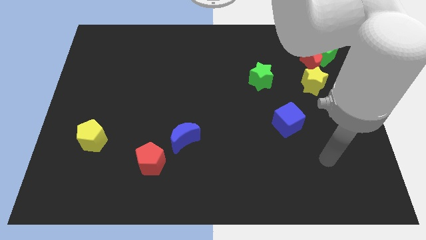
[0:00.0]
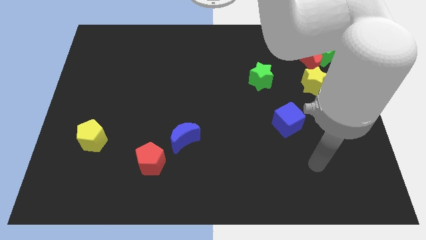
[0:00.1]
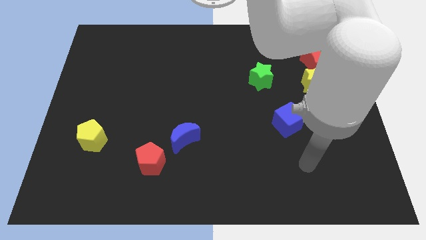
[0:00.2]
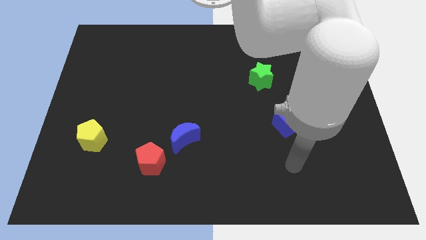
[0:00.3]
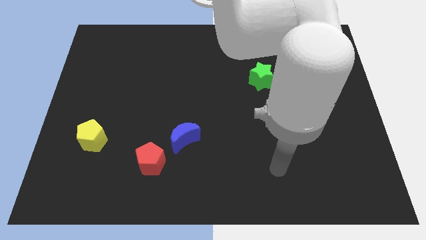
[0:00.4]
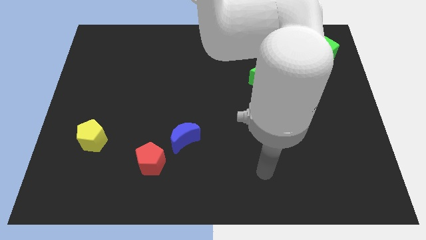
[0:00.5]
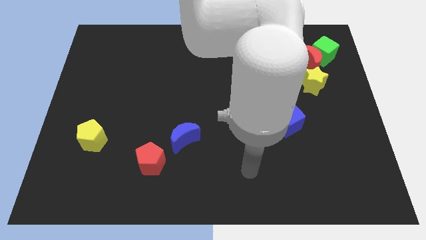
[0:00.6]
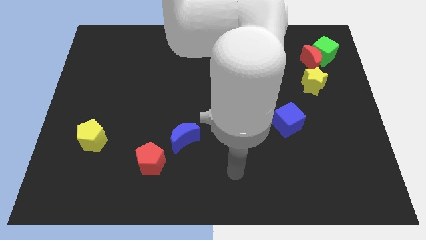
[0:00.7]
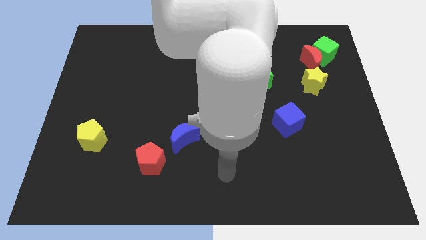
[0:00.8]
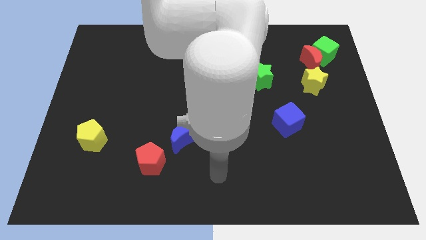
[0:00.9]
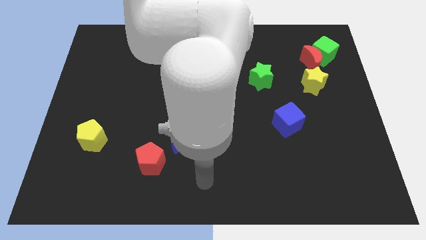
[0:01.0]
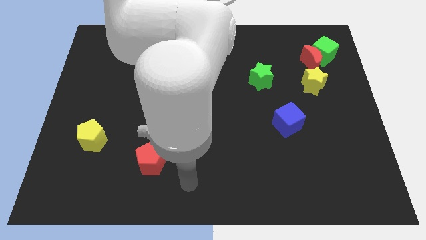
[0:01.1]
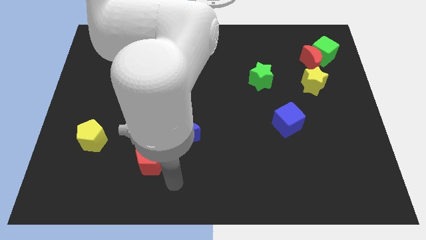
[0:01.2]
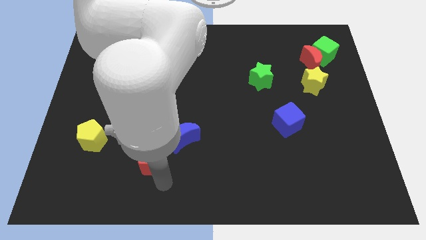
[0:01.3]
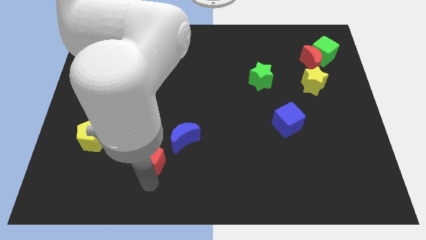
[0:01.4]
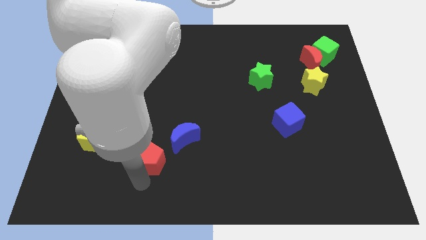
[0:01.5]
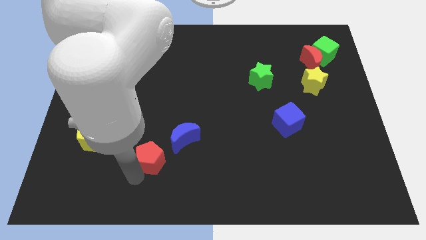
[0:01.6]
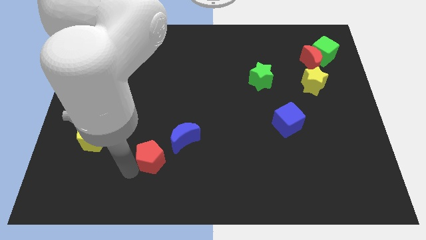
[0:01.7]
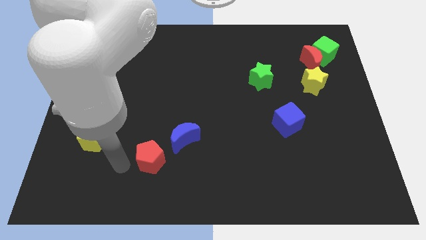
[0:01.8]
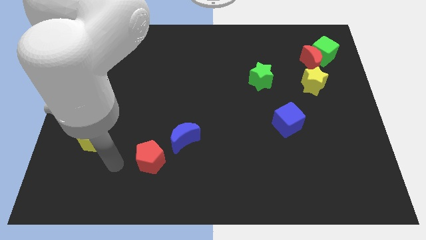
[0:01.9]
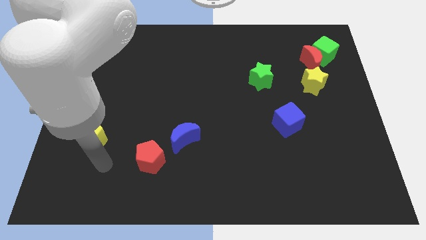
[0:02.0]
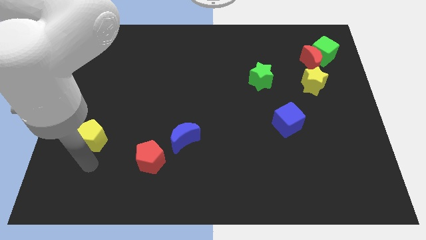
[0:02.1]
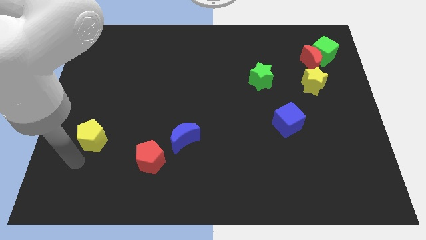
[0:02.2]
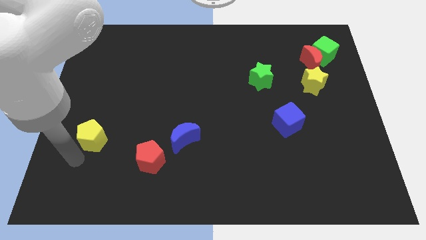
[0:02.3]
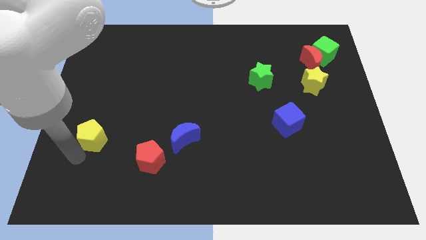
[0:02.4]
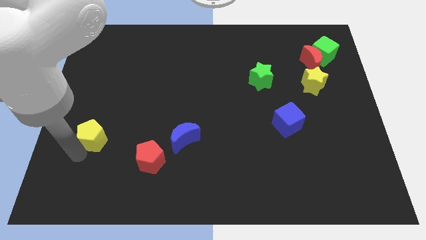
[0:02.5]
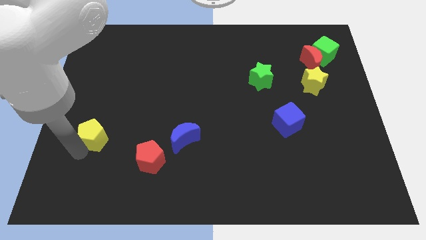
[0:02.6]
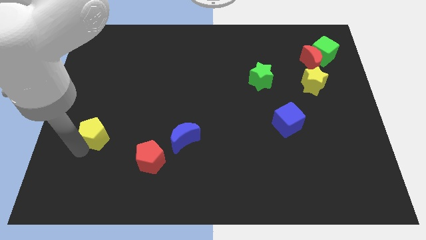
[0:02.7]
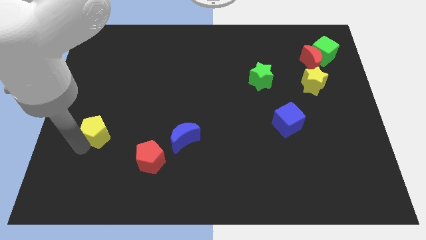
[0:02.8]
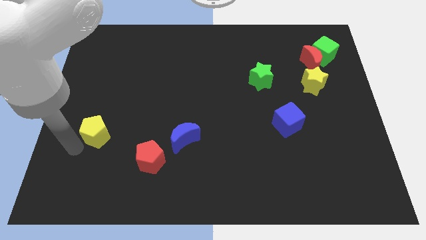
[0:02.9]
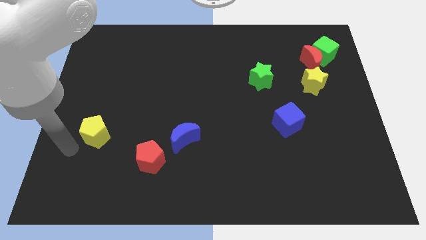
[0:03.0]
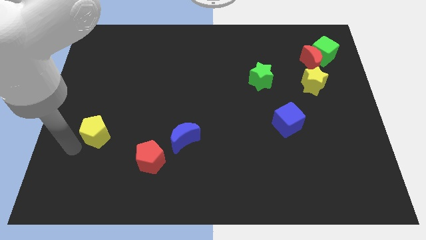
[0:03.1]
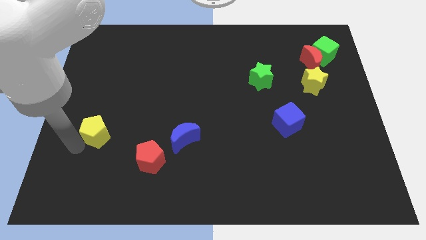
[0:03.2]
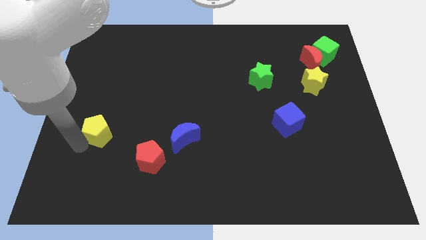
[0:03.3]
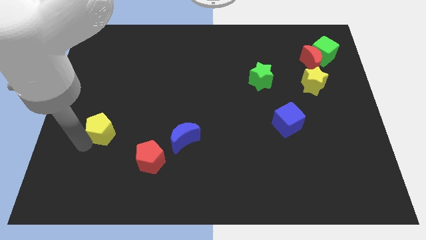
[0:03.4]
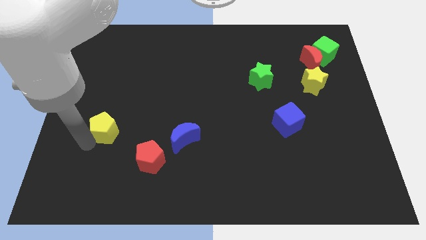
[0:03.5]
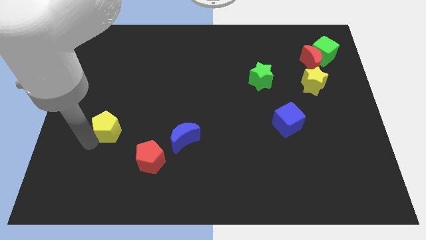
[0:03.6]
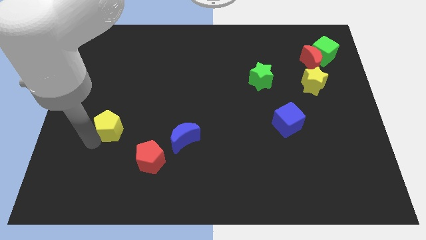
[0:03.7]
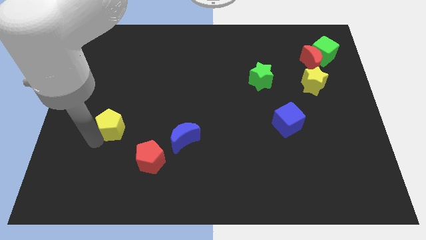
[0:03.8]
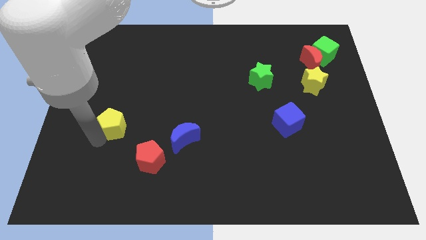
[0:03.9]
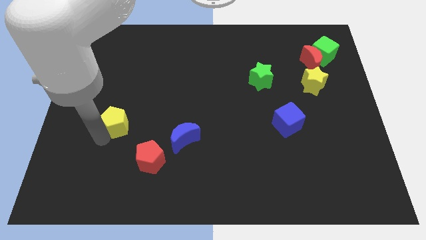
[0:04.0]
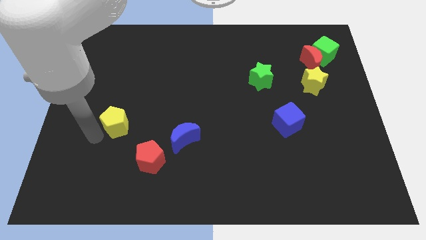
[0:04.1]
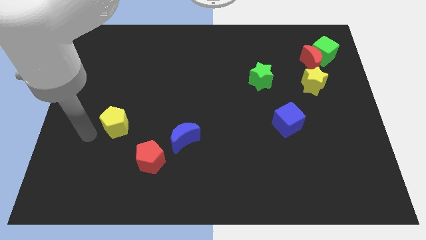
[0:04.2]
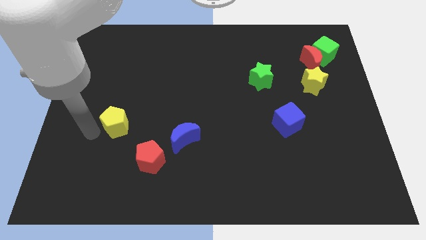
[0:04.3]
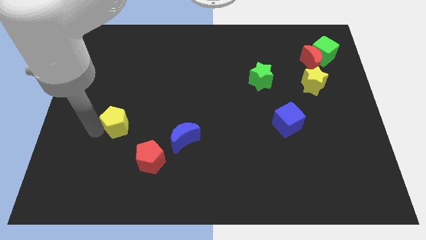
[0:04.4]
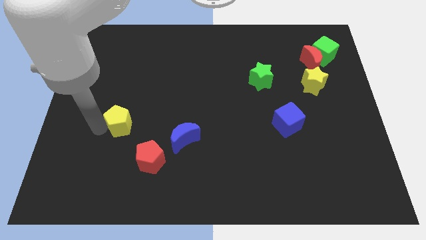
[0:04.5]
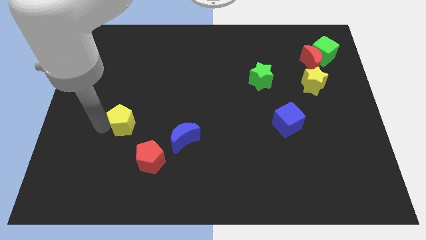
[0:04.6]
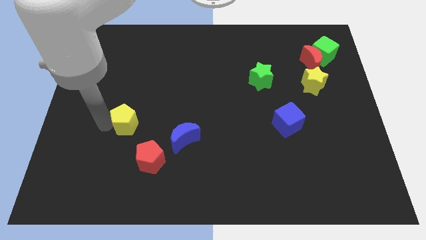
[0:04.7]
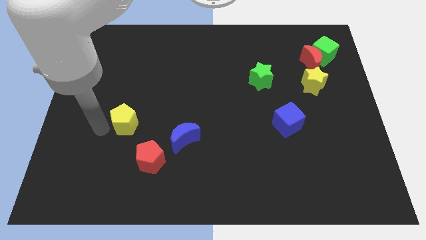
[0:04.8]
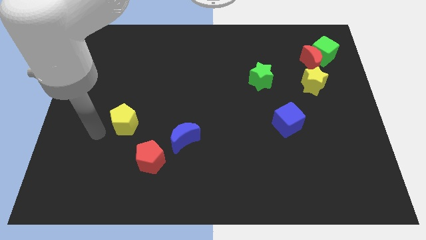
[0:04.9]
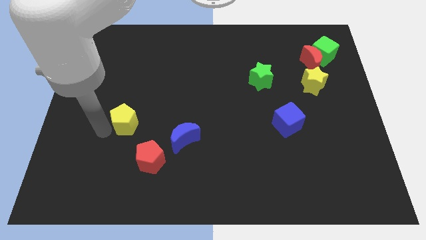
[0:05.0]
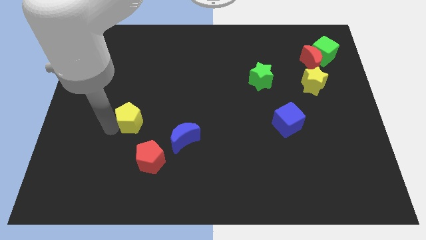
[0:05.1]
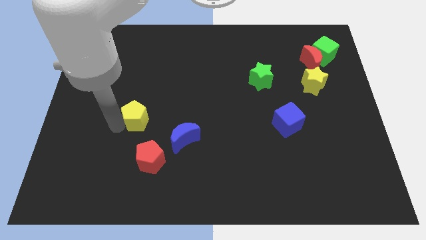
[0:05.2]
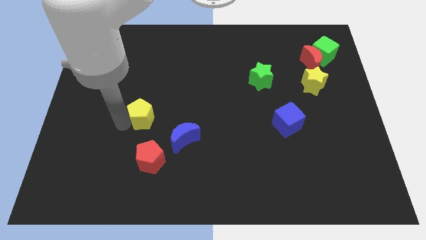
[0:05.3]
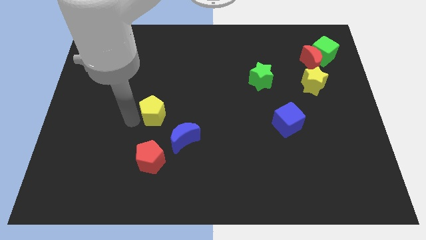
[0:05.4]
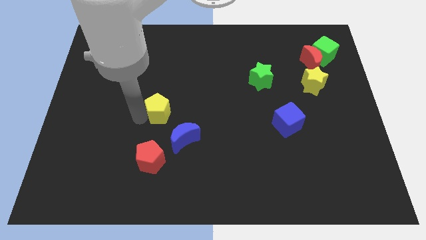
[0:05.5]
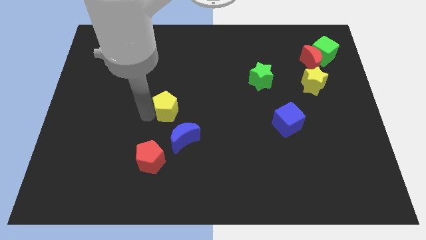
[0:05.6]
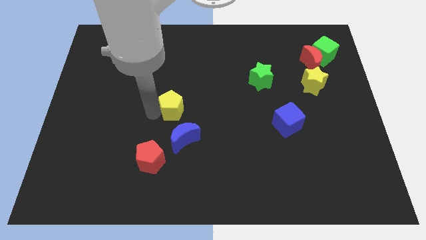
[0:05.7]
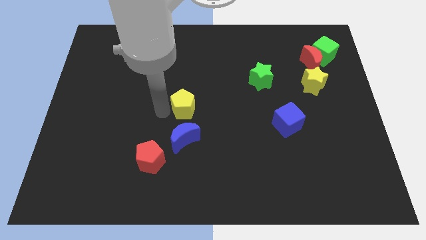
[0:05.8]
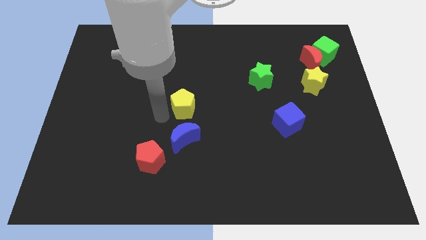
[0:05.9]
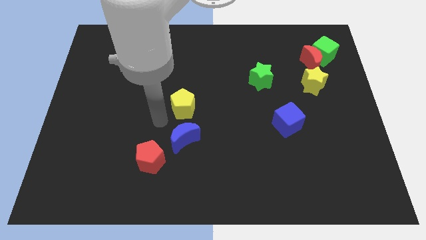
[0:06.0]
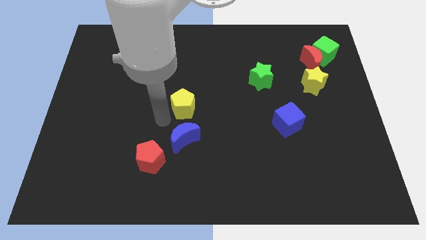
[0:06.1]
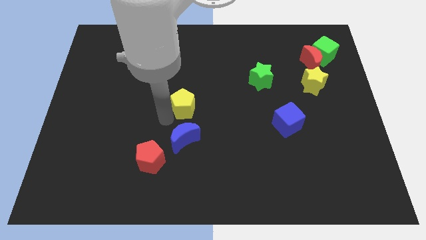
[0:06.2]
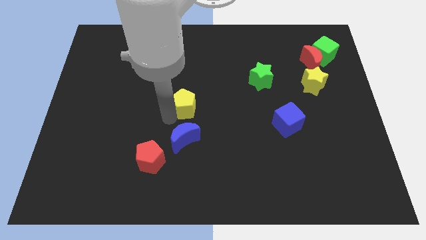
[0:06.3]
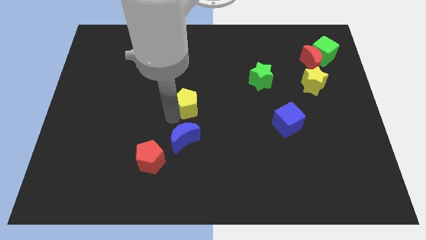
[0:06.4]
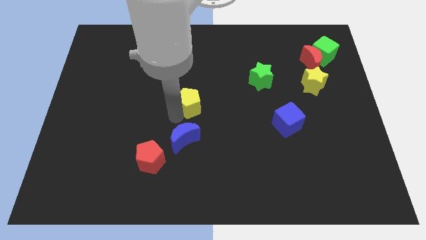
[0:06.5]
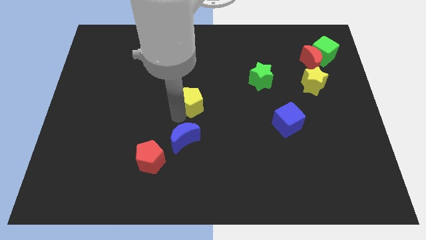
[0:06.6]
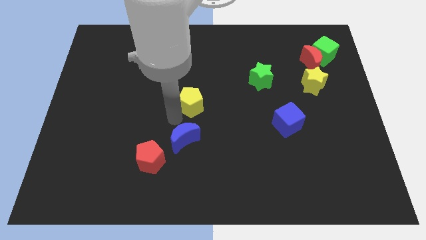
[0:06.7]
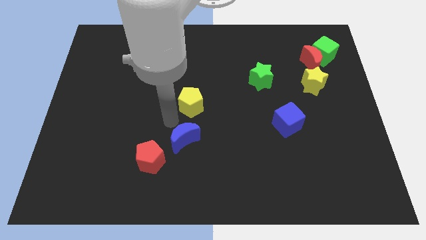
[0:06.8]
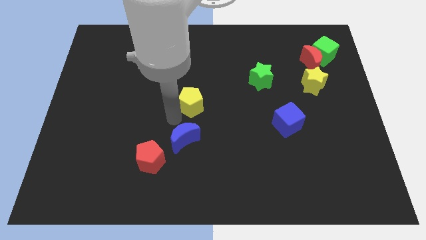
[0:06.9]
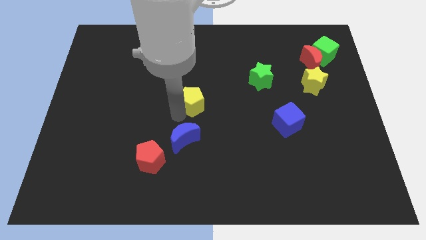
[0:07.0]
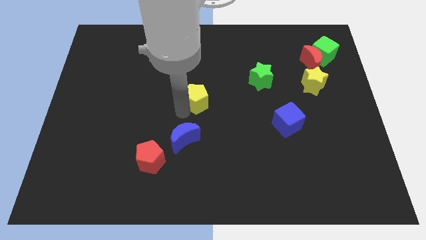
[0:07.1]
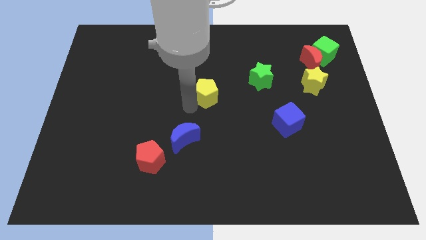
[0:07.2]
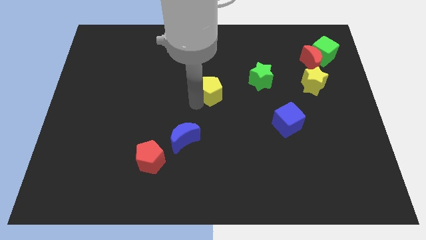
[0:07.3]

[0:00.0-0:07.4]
put the yellow pentagon to the left of the green star
